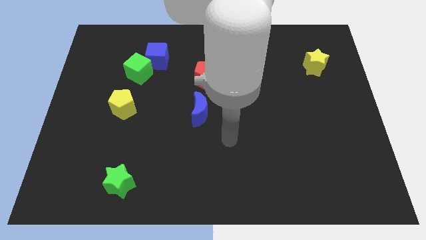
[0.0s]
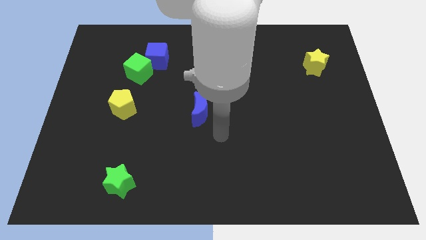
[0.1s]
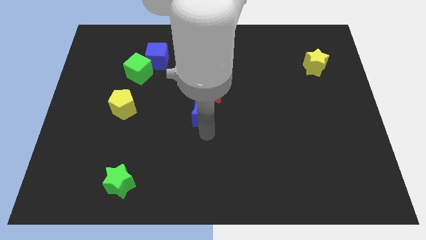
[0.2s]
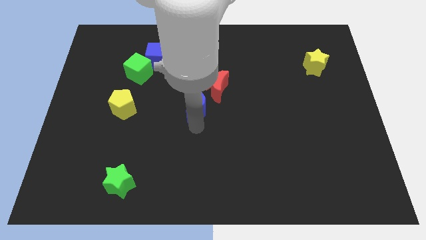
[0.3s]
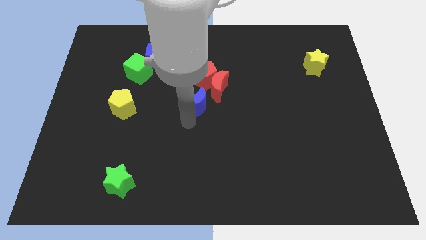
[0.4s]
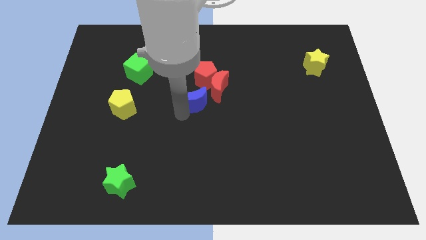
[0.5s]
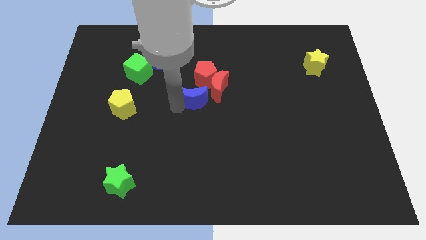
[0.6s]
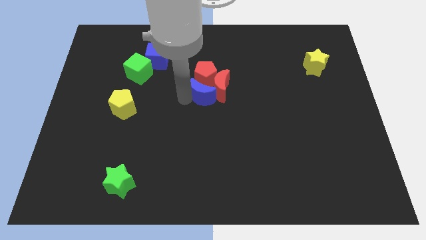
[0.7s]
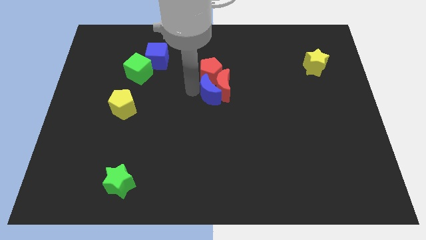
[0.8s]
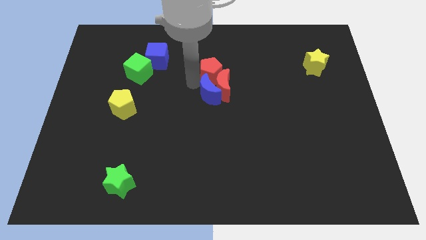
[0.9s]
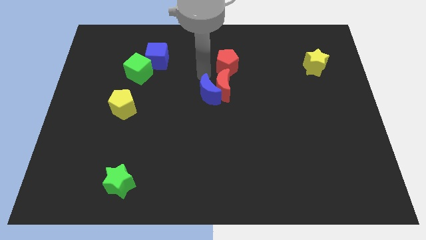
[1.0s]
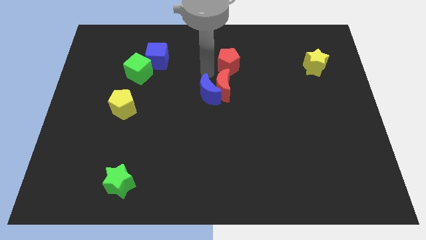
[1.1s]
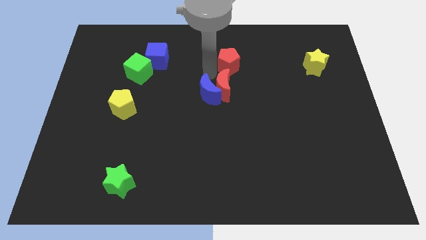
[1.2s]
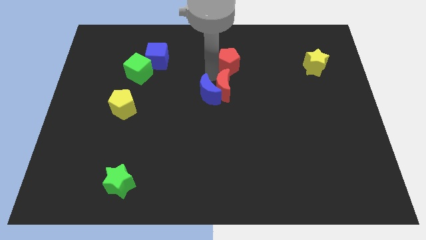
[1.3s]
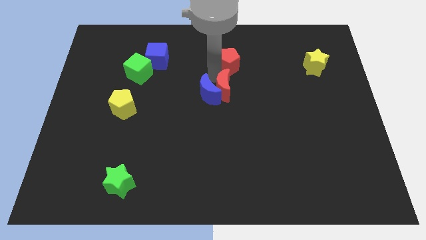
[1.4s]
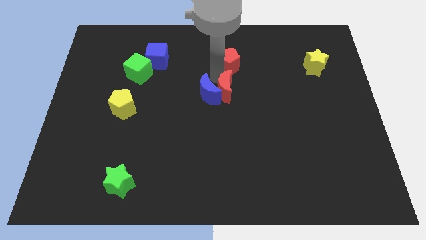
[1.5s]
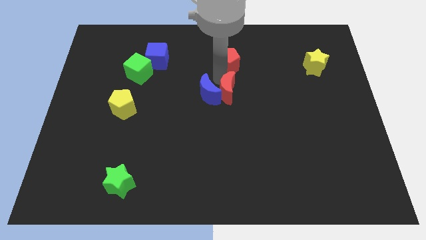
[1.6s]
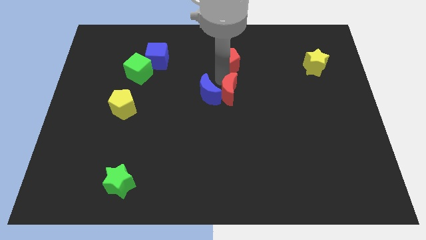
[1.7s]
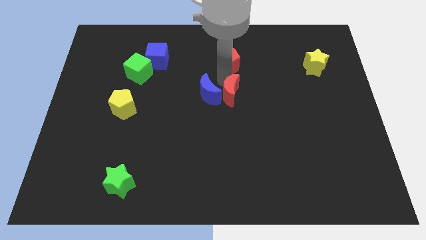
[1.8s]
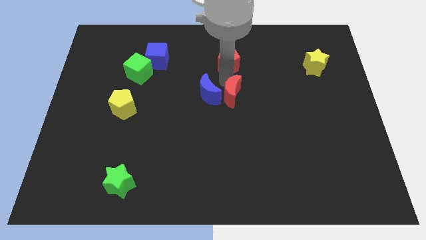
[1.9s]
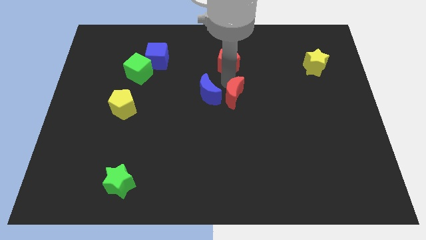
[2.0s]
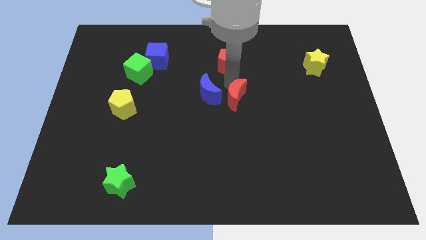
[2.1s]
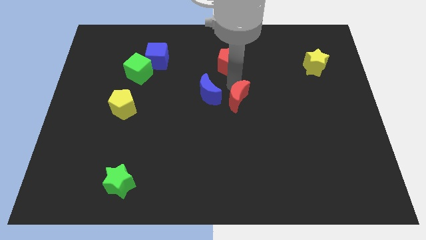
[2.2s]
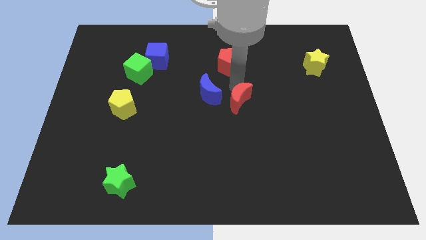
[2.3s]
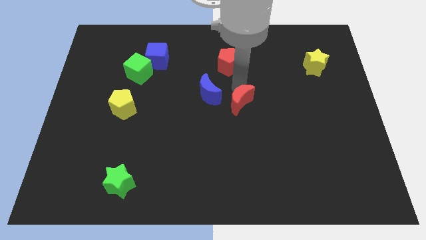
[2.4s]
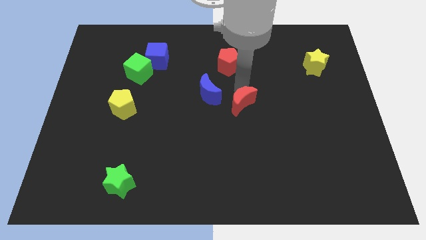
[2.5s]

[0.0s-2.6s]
slide the red moon down and to the right diagonally a little bit

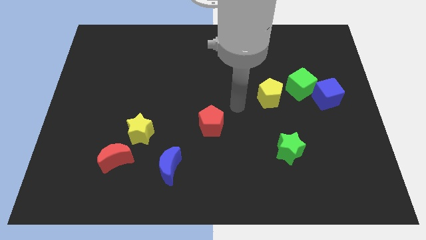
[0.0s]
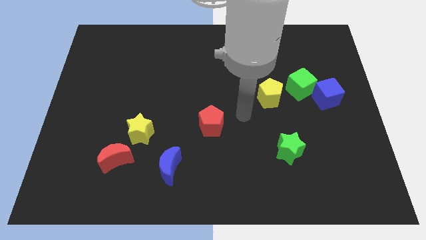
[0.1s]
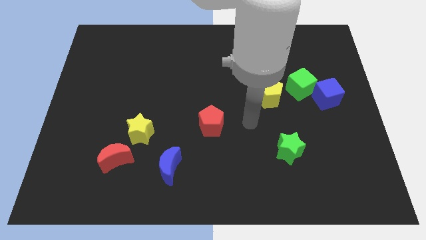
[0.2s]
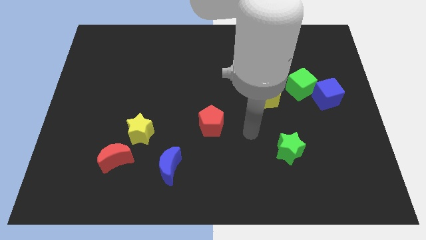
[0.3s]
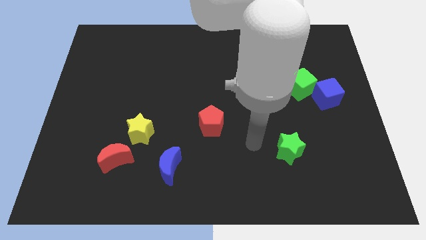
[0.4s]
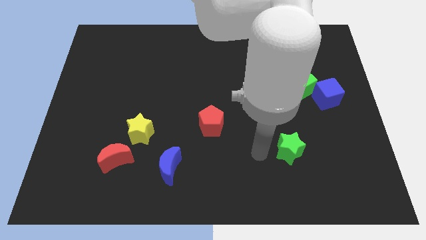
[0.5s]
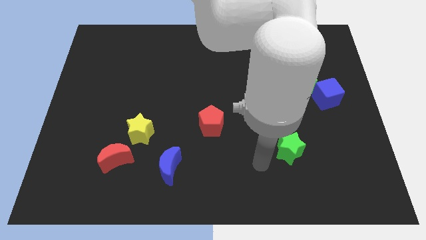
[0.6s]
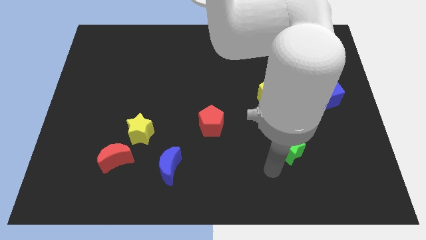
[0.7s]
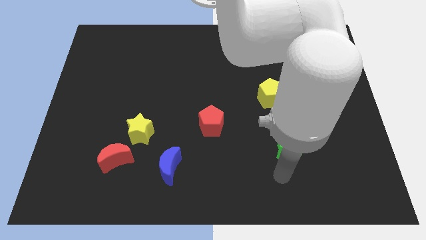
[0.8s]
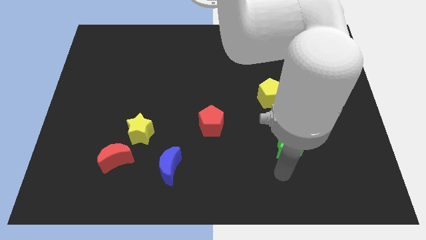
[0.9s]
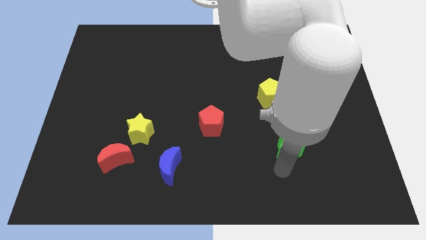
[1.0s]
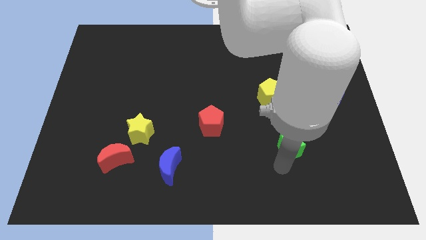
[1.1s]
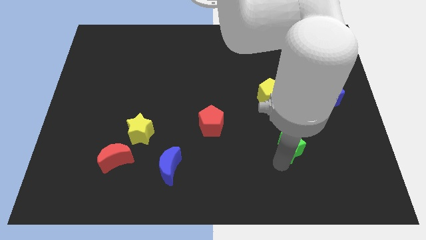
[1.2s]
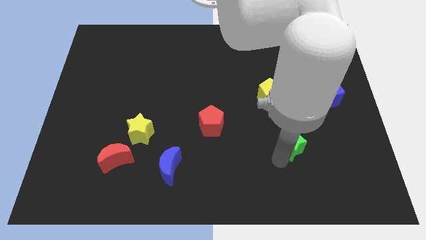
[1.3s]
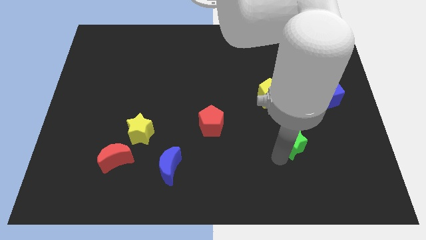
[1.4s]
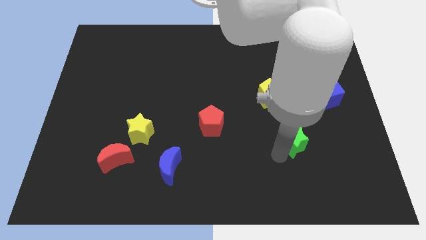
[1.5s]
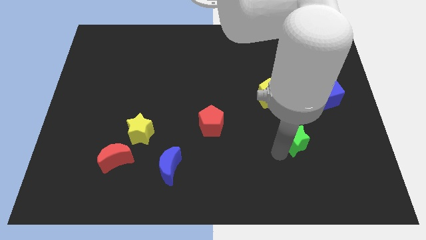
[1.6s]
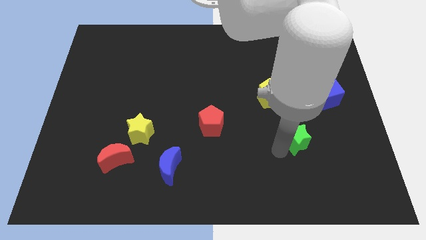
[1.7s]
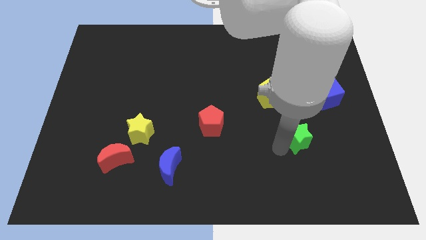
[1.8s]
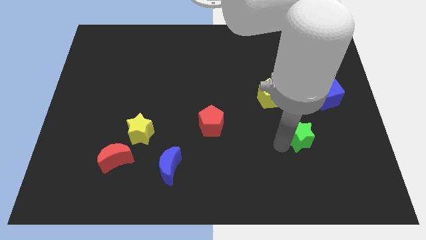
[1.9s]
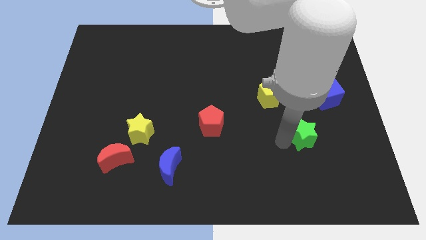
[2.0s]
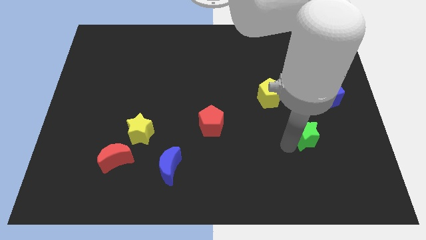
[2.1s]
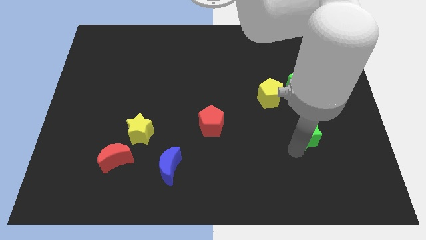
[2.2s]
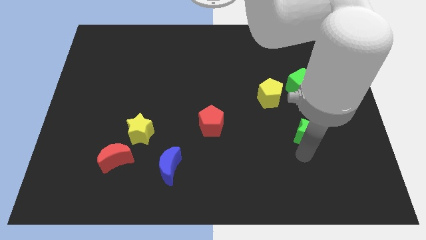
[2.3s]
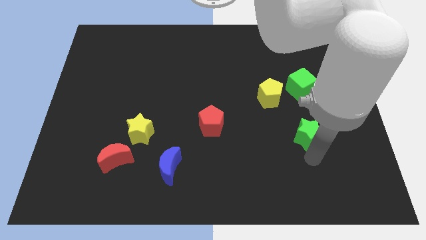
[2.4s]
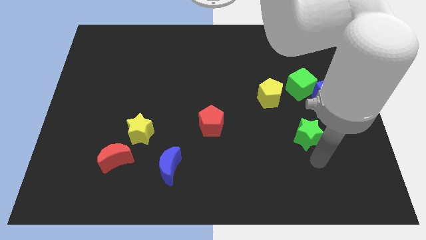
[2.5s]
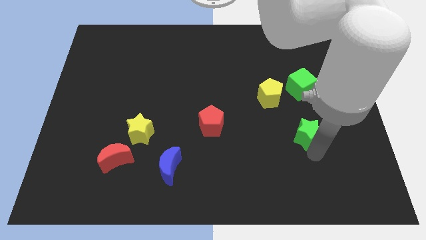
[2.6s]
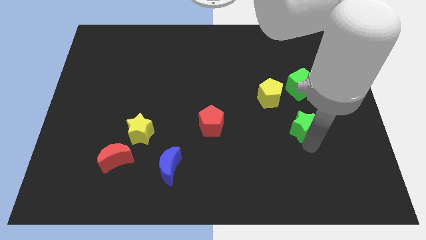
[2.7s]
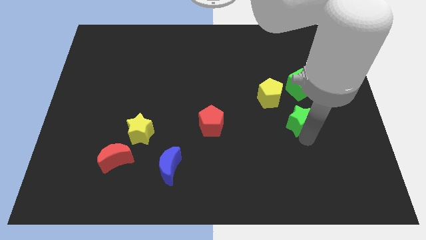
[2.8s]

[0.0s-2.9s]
move the green star upwards a little

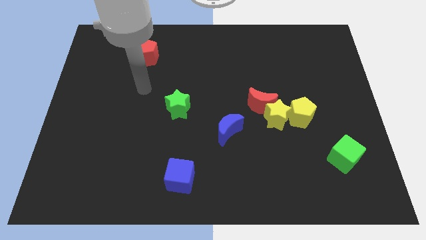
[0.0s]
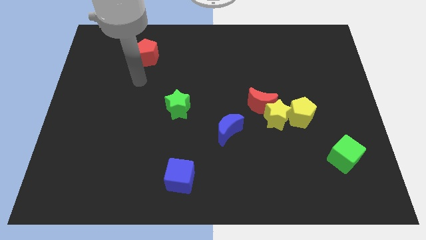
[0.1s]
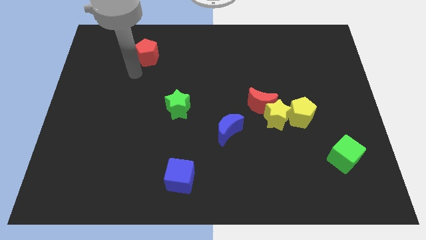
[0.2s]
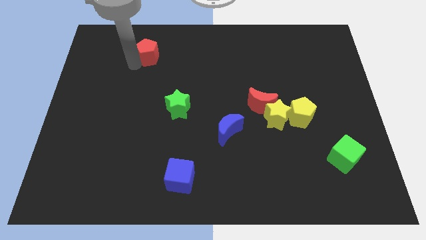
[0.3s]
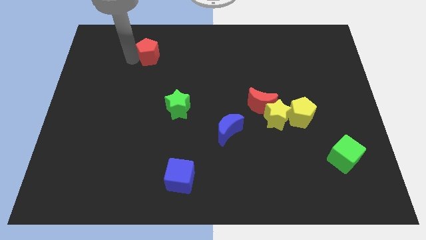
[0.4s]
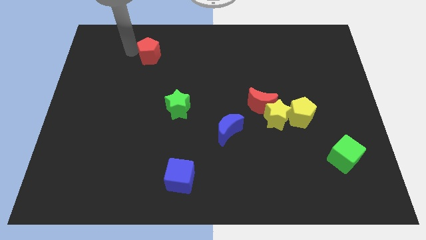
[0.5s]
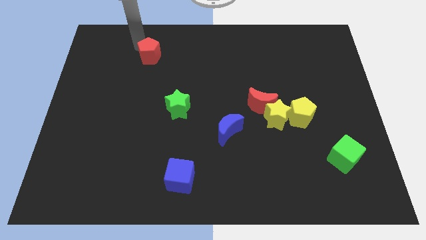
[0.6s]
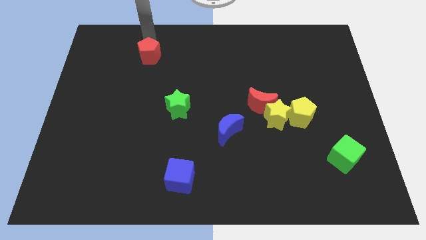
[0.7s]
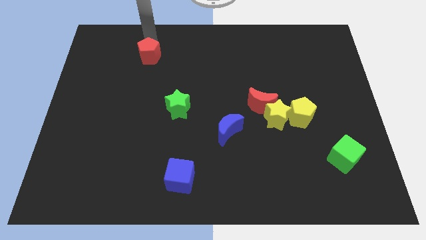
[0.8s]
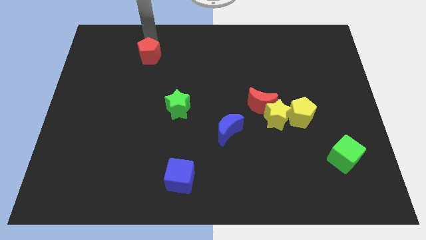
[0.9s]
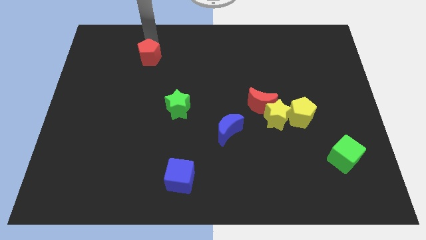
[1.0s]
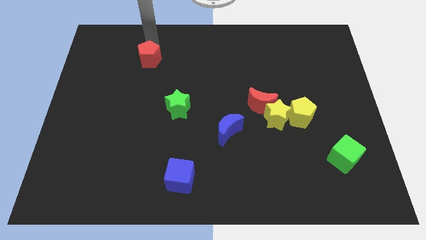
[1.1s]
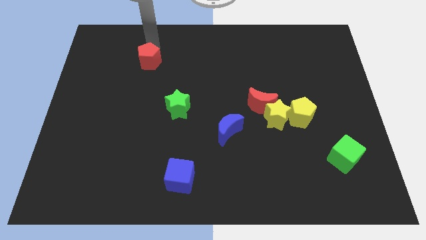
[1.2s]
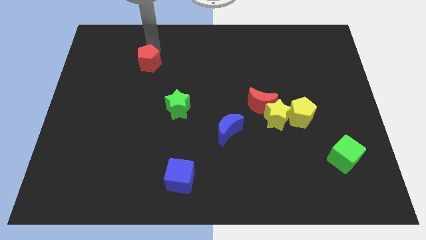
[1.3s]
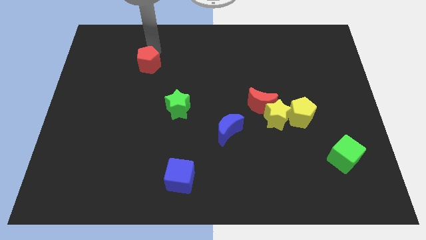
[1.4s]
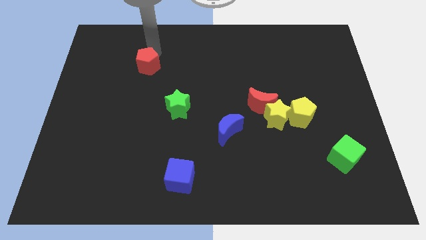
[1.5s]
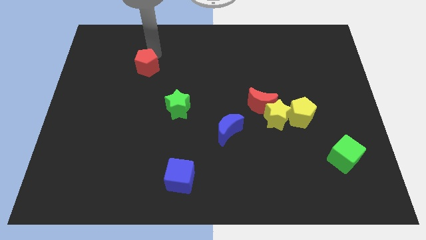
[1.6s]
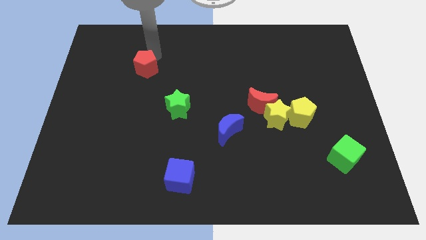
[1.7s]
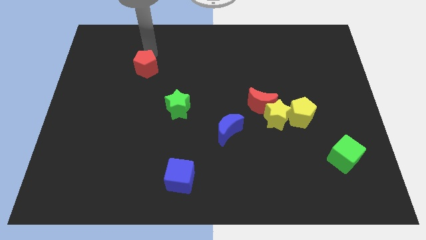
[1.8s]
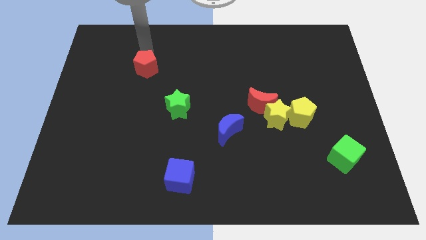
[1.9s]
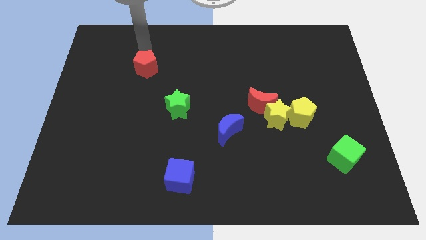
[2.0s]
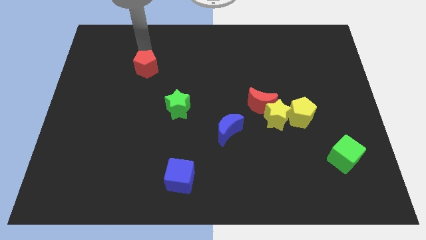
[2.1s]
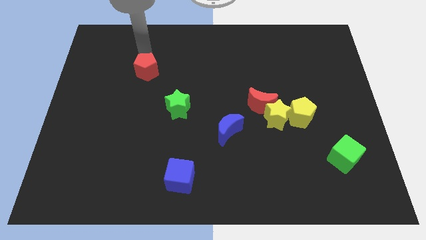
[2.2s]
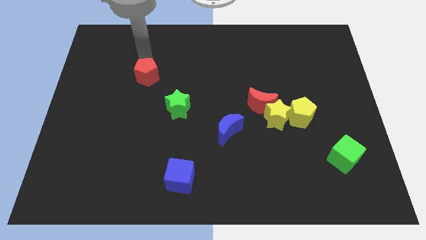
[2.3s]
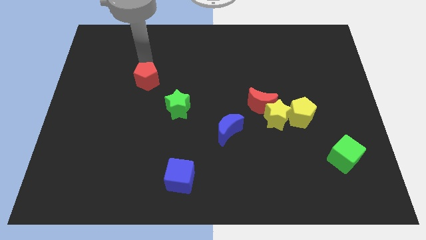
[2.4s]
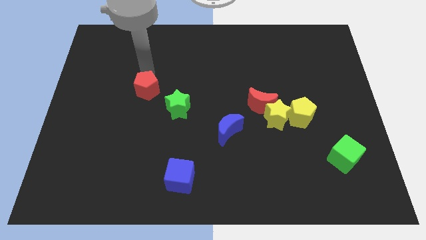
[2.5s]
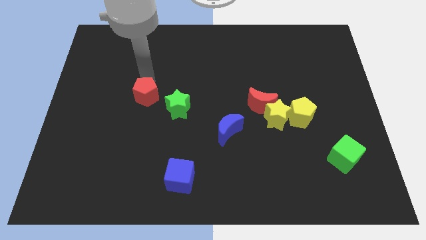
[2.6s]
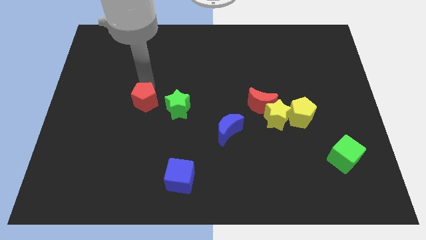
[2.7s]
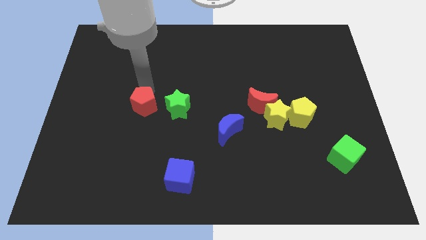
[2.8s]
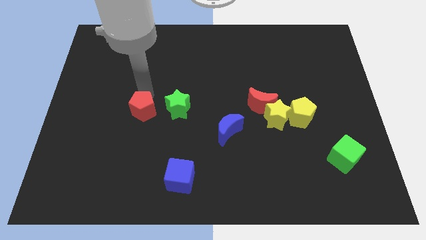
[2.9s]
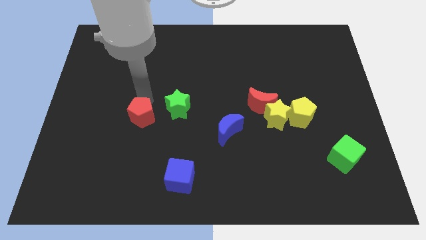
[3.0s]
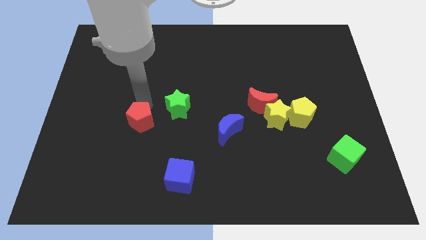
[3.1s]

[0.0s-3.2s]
push the red pentagon down
